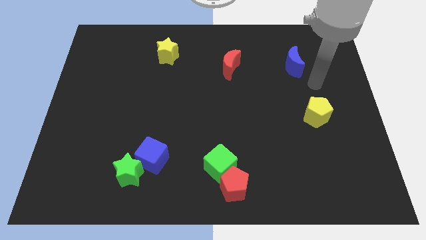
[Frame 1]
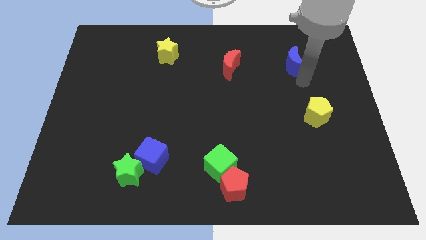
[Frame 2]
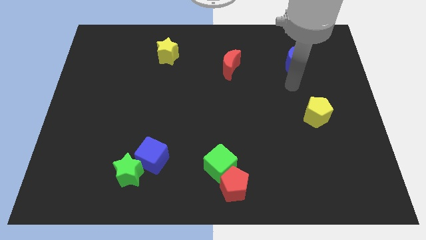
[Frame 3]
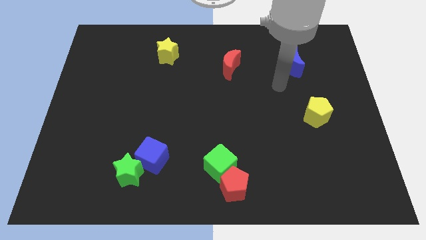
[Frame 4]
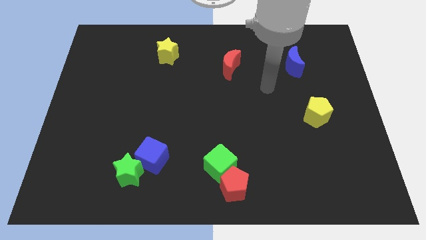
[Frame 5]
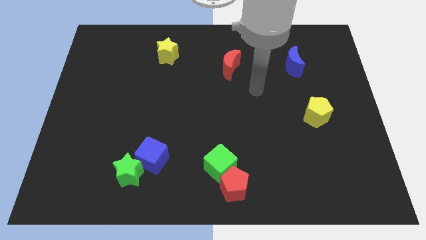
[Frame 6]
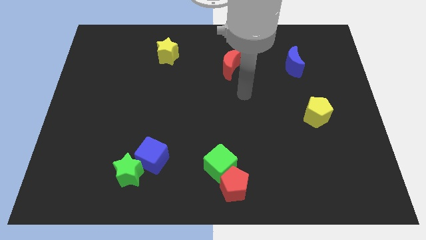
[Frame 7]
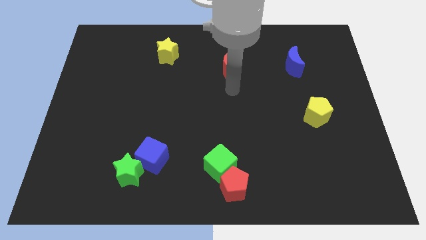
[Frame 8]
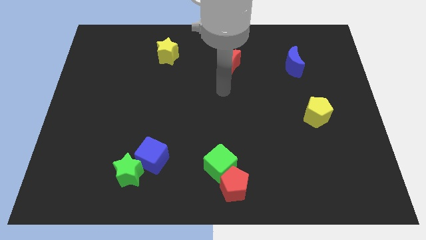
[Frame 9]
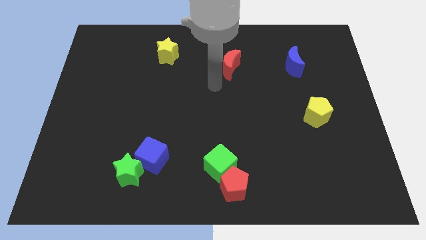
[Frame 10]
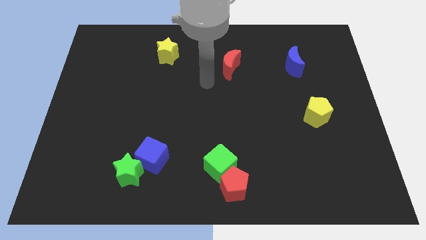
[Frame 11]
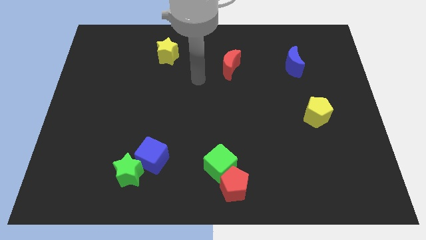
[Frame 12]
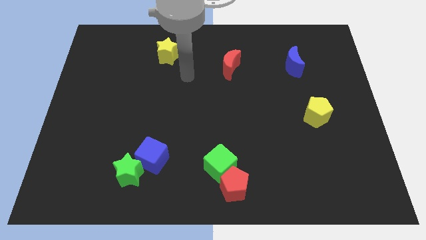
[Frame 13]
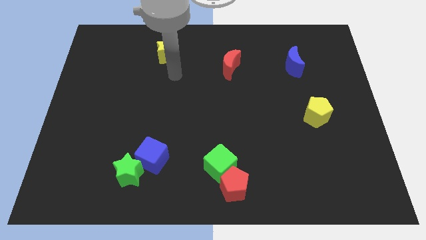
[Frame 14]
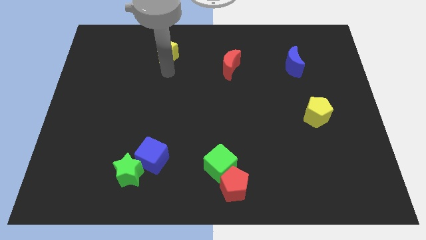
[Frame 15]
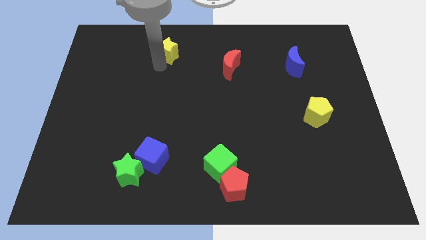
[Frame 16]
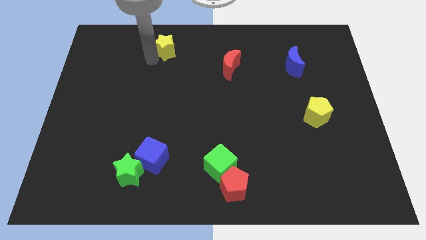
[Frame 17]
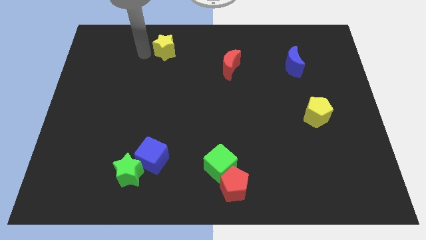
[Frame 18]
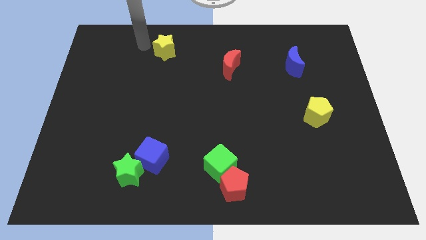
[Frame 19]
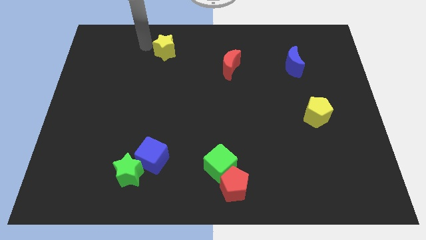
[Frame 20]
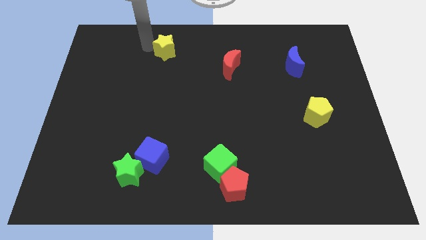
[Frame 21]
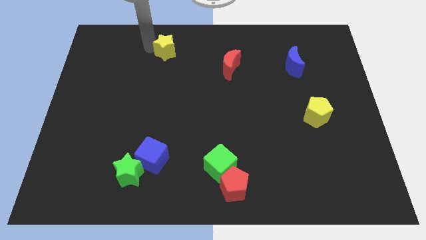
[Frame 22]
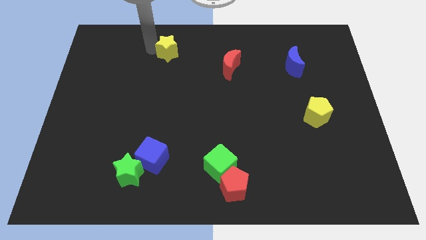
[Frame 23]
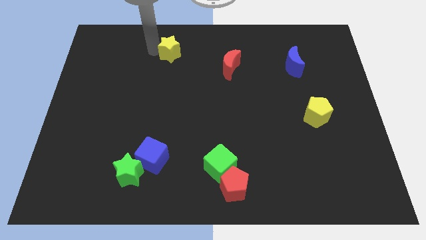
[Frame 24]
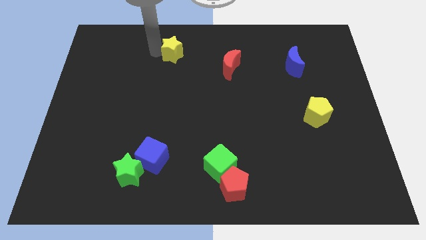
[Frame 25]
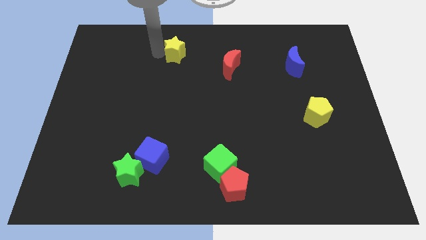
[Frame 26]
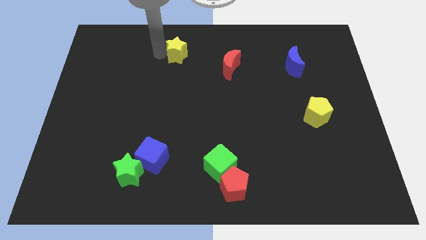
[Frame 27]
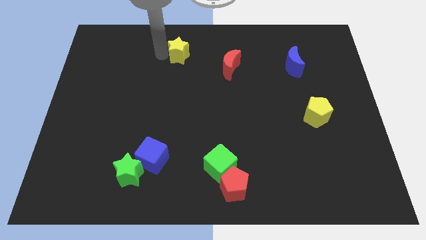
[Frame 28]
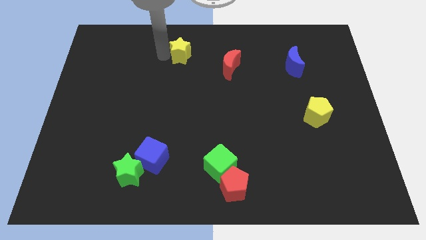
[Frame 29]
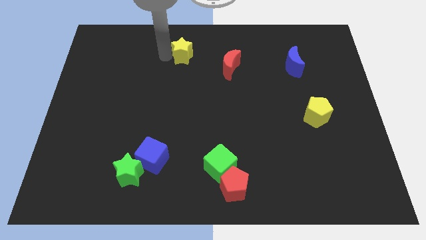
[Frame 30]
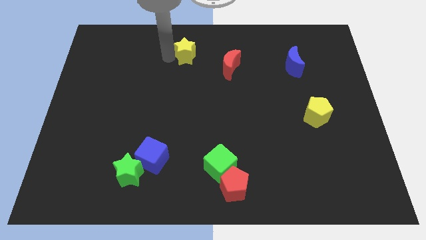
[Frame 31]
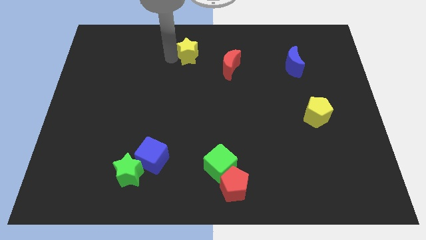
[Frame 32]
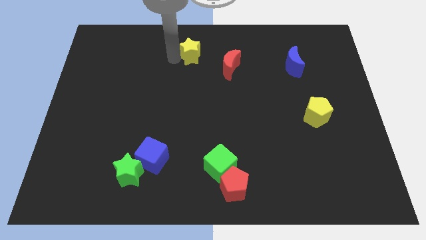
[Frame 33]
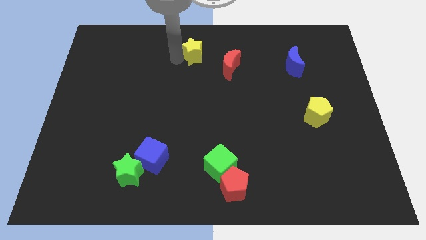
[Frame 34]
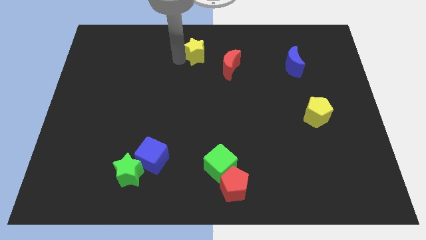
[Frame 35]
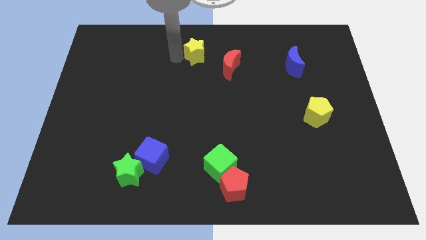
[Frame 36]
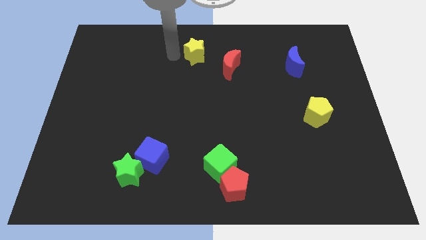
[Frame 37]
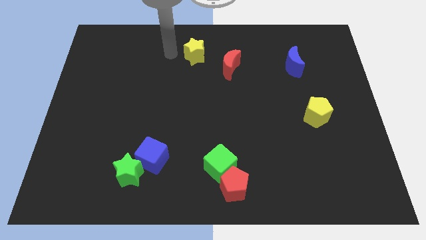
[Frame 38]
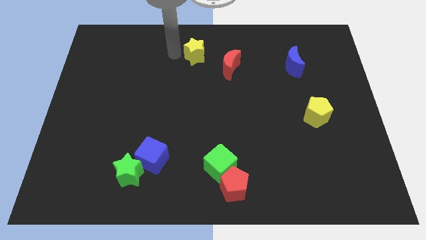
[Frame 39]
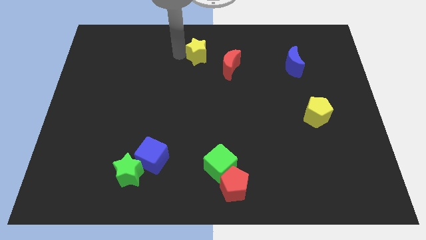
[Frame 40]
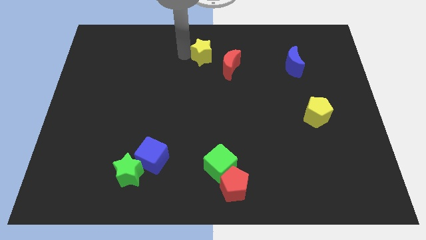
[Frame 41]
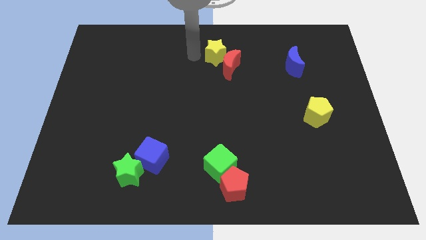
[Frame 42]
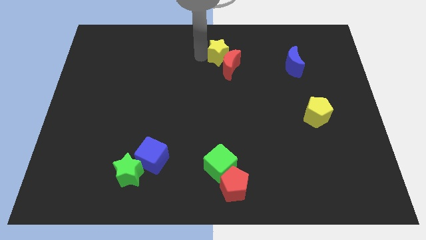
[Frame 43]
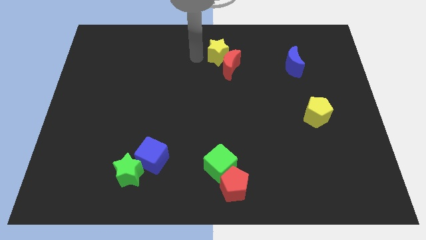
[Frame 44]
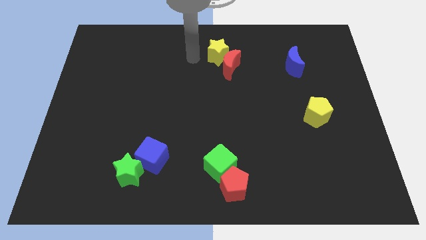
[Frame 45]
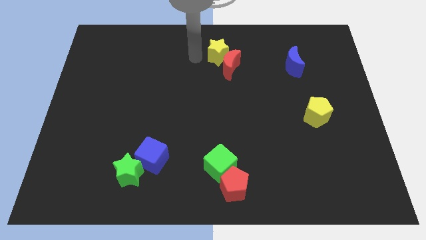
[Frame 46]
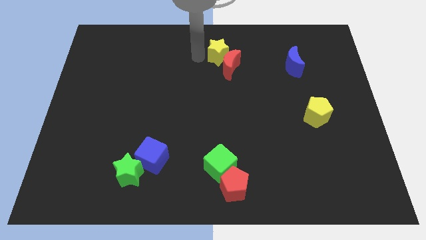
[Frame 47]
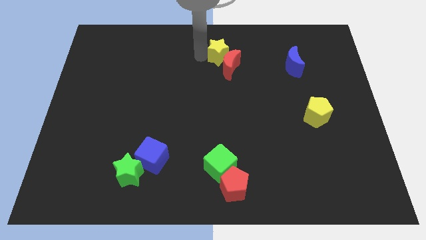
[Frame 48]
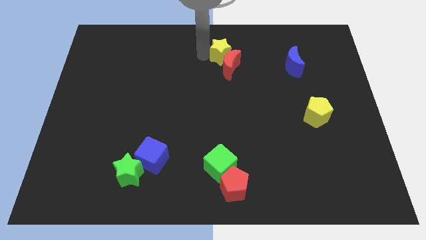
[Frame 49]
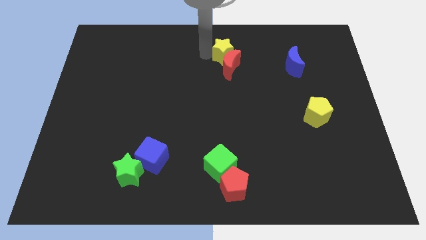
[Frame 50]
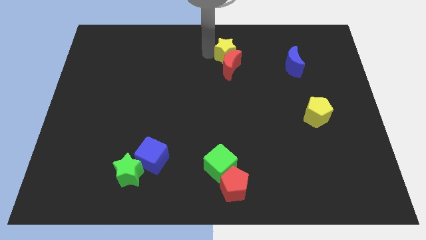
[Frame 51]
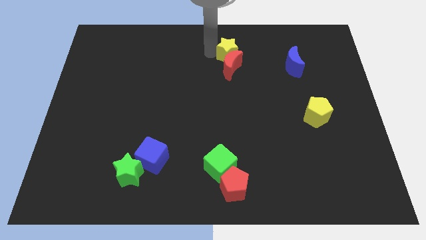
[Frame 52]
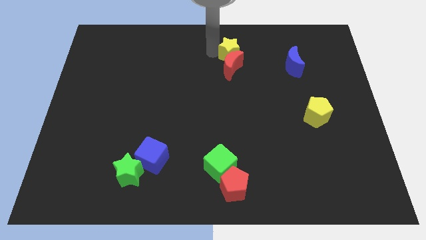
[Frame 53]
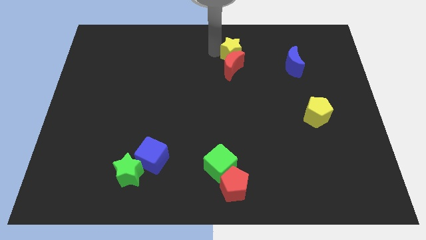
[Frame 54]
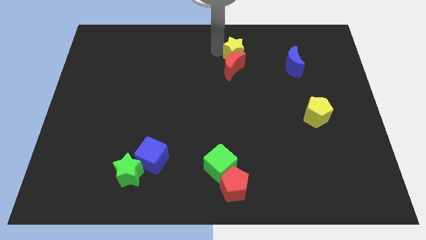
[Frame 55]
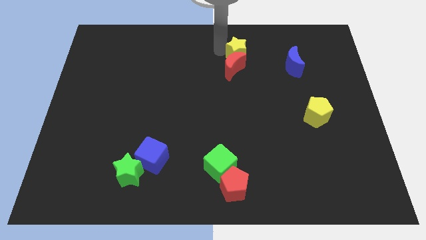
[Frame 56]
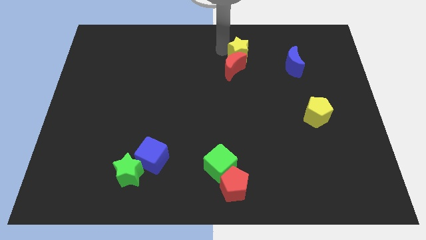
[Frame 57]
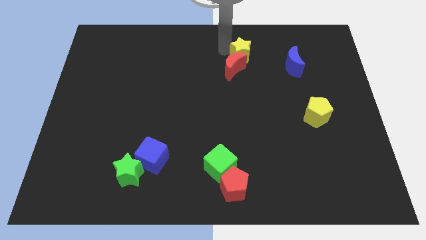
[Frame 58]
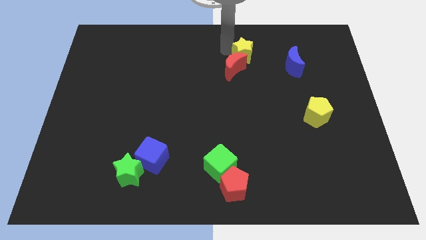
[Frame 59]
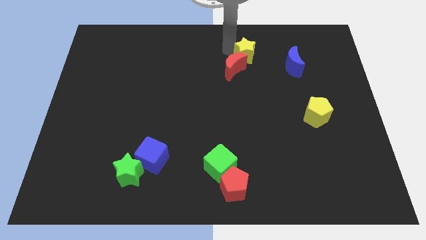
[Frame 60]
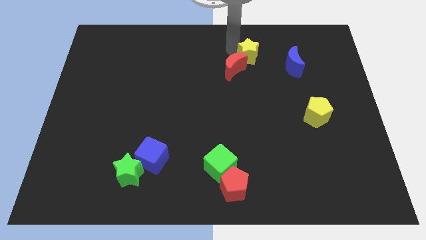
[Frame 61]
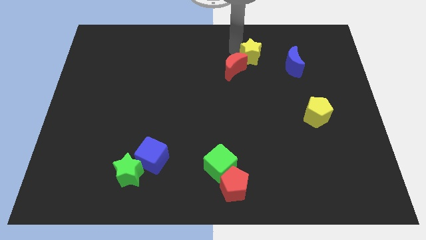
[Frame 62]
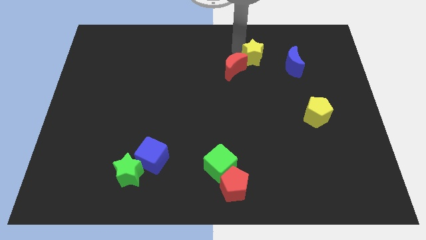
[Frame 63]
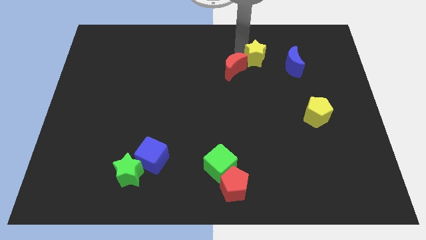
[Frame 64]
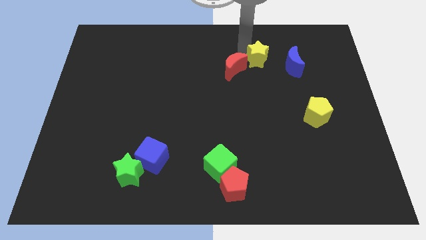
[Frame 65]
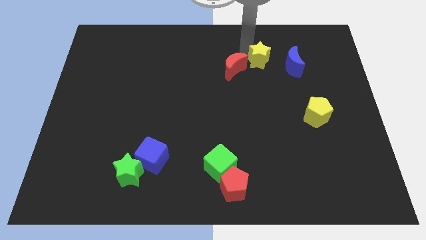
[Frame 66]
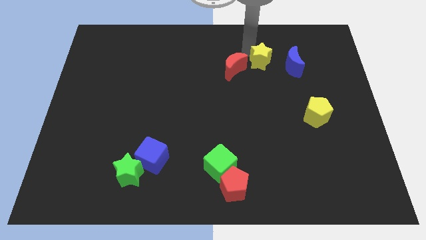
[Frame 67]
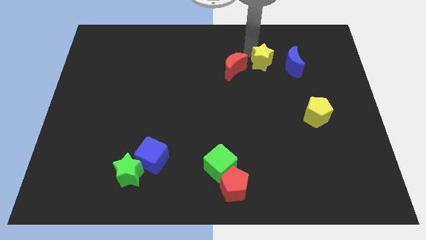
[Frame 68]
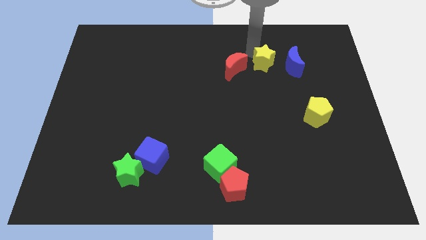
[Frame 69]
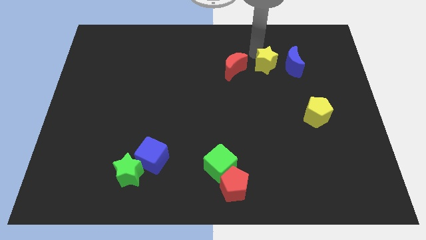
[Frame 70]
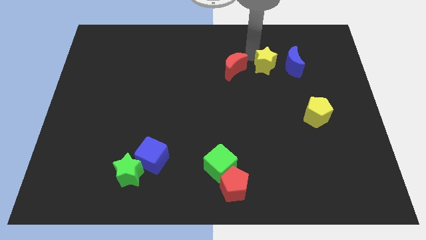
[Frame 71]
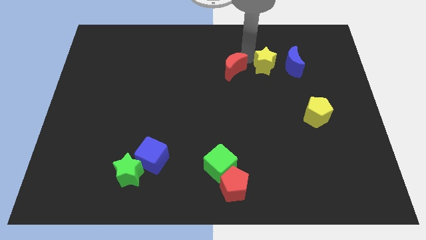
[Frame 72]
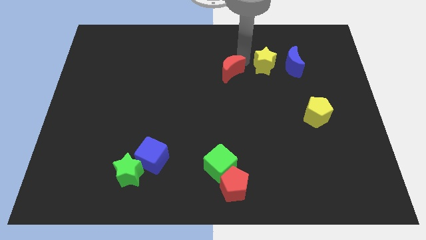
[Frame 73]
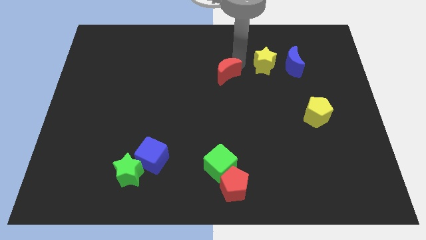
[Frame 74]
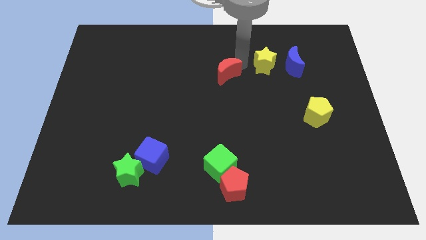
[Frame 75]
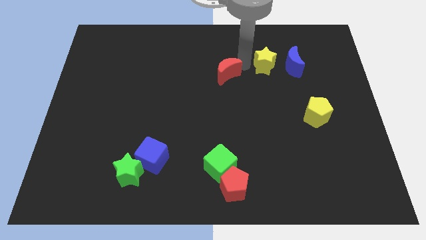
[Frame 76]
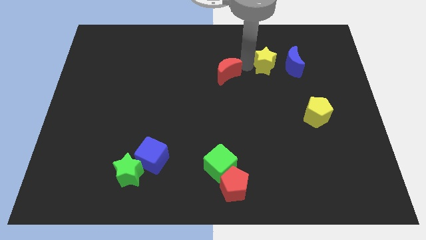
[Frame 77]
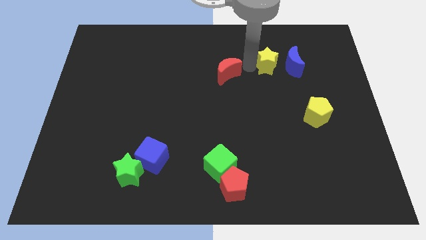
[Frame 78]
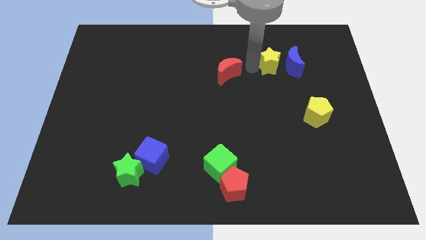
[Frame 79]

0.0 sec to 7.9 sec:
slide the yellow star to the blue moon
